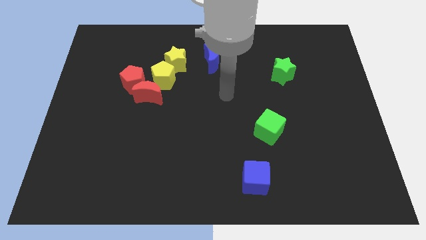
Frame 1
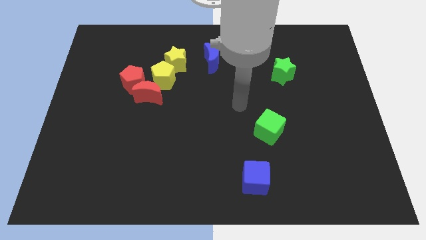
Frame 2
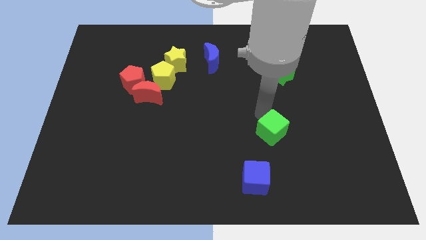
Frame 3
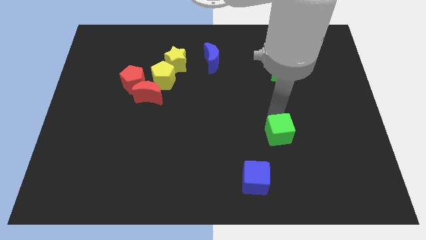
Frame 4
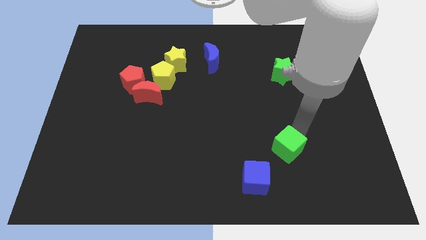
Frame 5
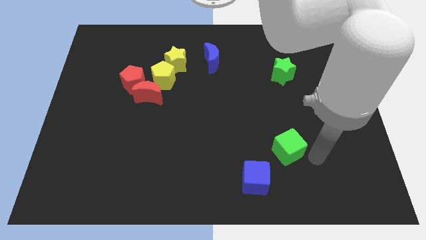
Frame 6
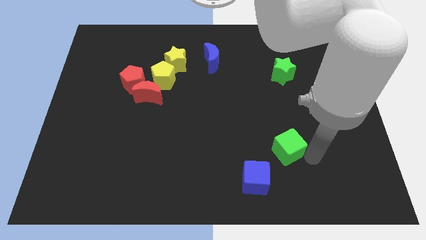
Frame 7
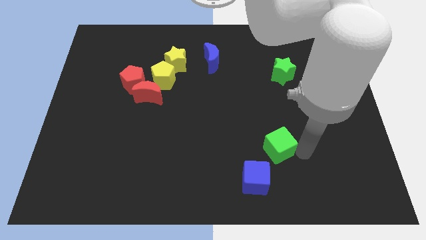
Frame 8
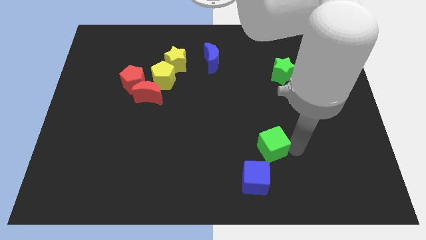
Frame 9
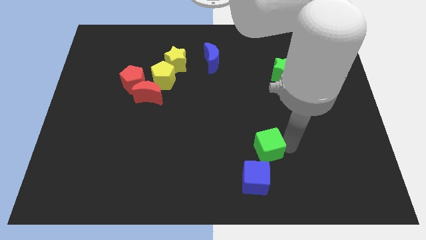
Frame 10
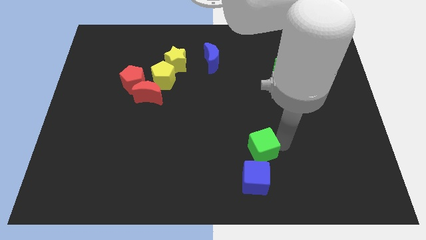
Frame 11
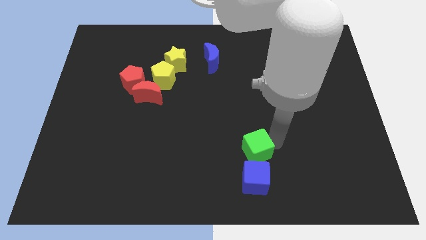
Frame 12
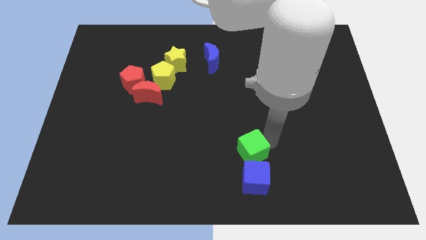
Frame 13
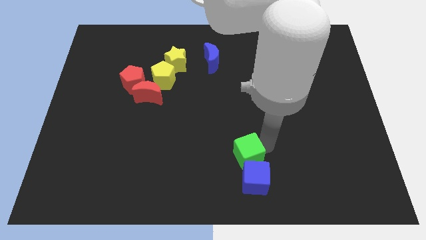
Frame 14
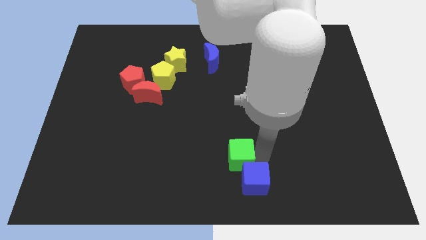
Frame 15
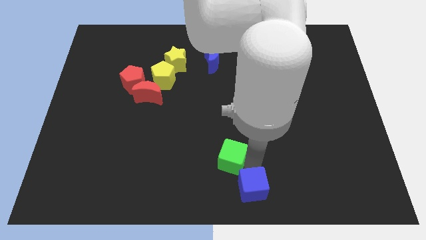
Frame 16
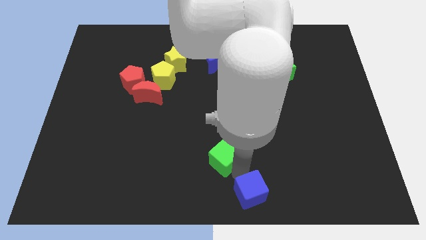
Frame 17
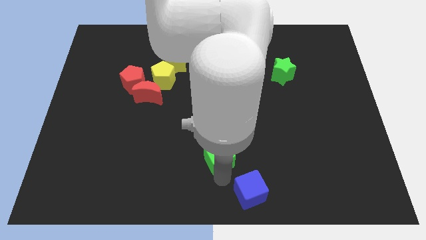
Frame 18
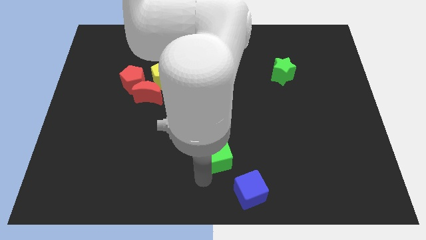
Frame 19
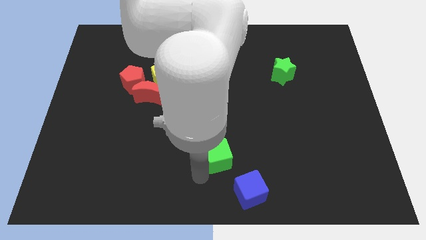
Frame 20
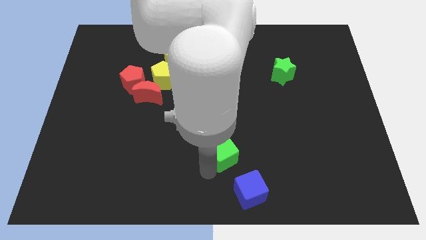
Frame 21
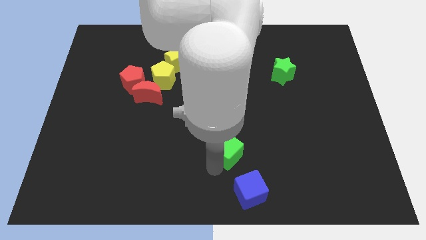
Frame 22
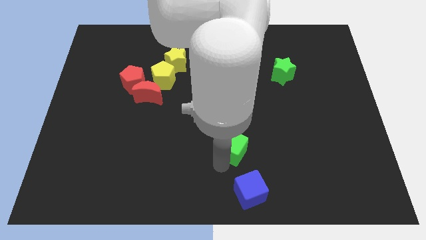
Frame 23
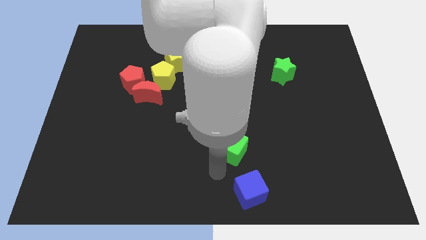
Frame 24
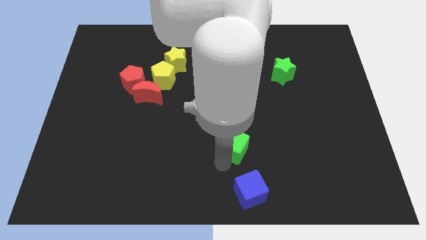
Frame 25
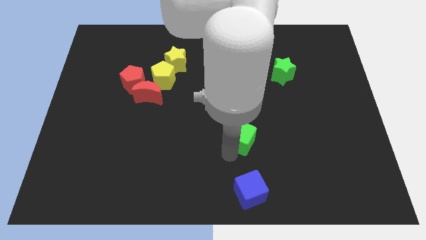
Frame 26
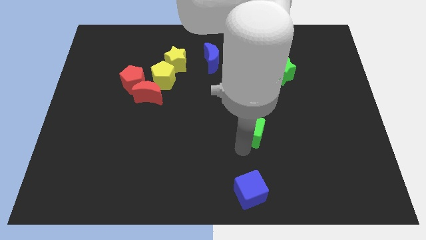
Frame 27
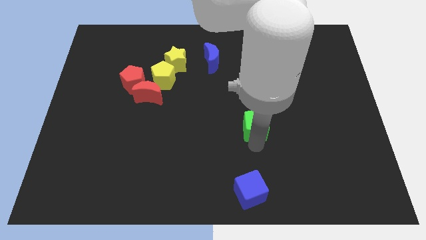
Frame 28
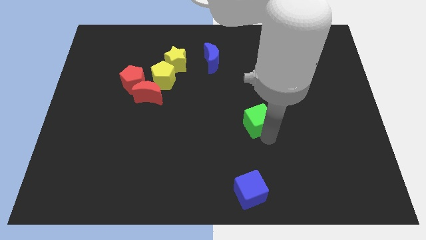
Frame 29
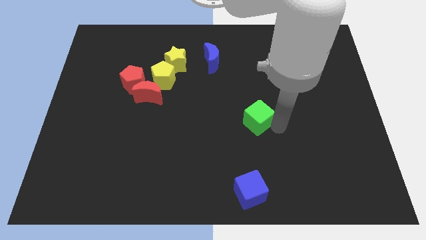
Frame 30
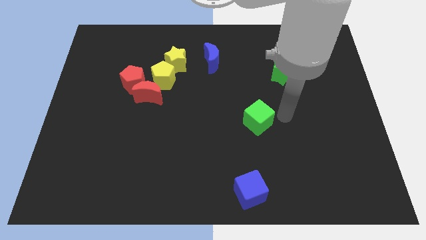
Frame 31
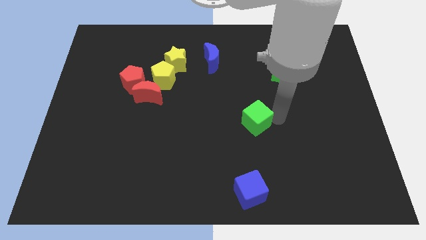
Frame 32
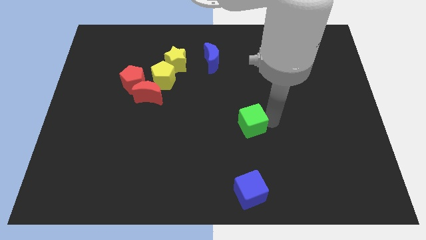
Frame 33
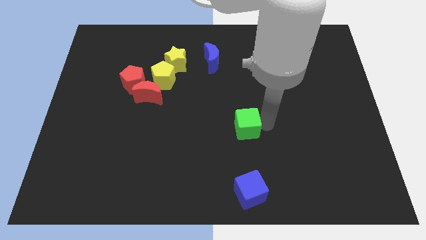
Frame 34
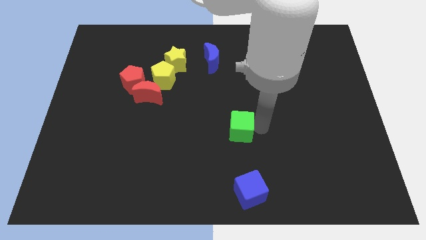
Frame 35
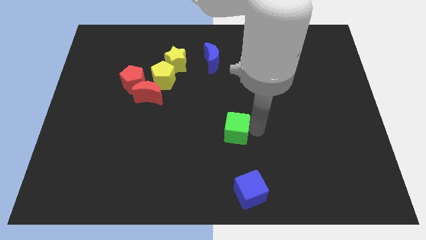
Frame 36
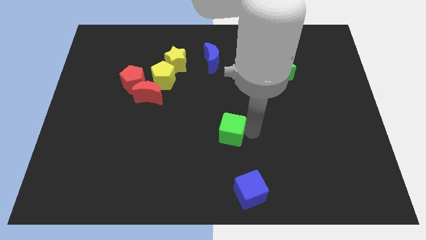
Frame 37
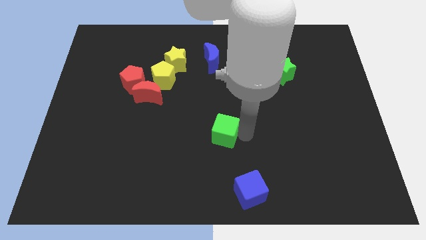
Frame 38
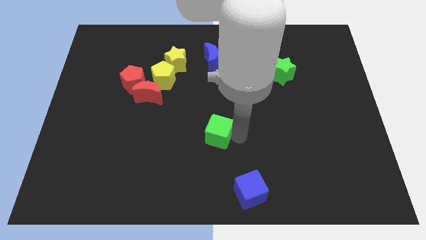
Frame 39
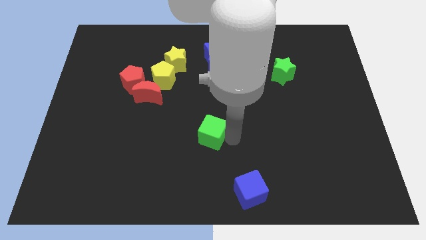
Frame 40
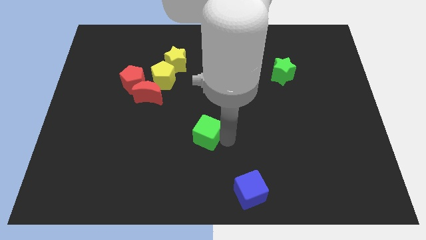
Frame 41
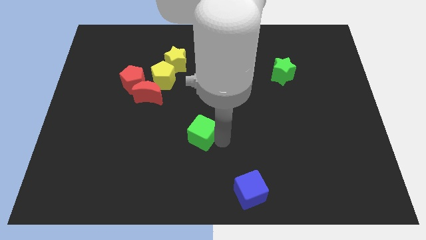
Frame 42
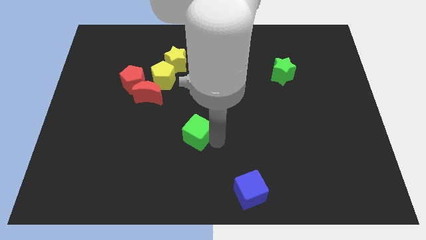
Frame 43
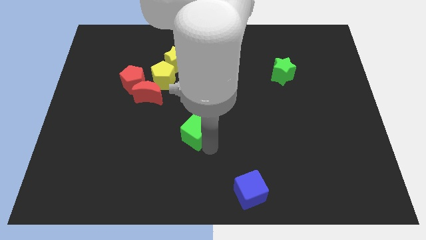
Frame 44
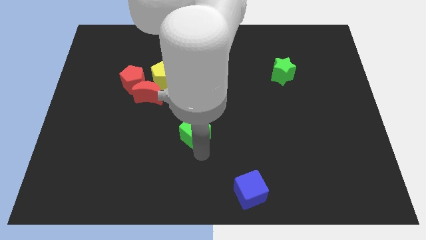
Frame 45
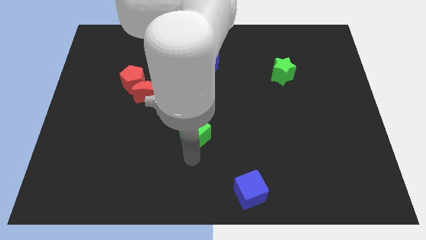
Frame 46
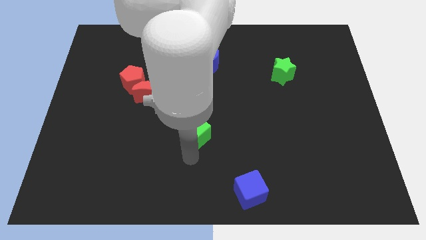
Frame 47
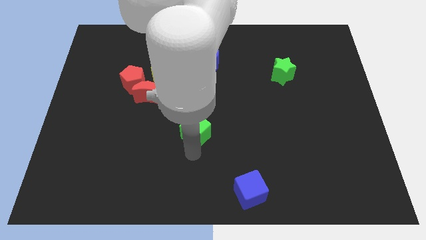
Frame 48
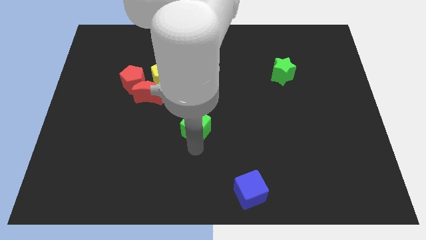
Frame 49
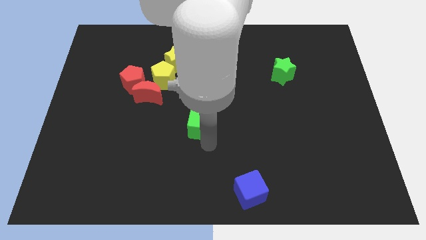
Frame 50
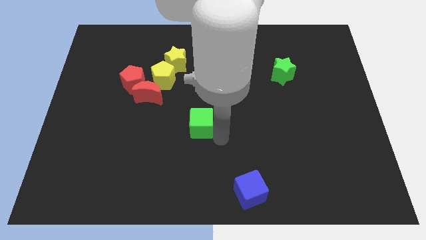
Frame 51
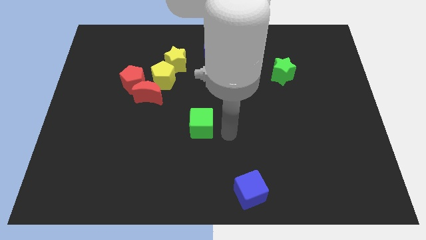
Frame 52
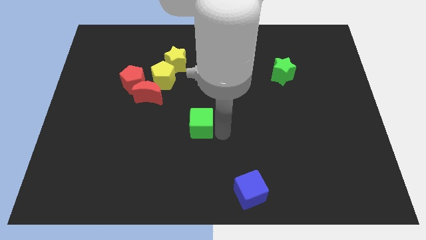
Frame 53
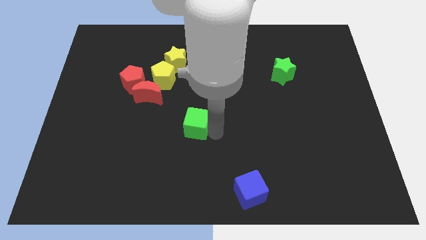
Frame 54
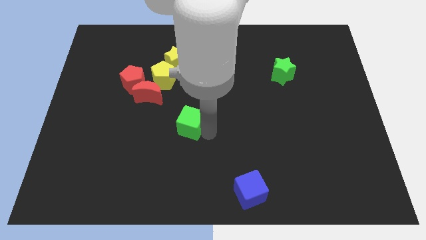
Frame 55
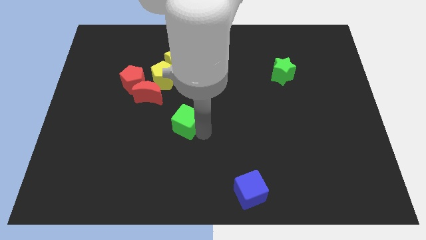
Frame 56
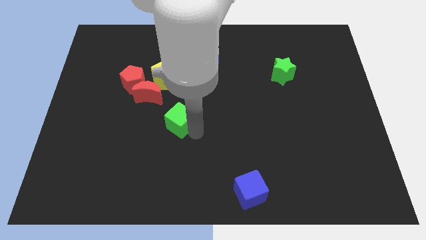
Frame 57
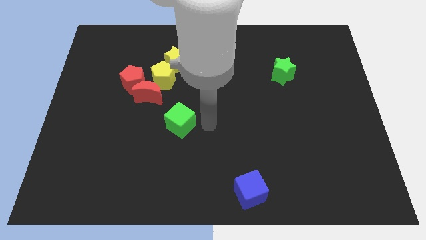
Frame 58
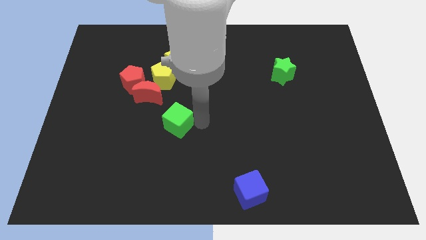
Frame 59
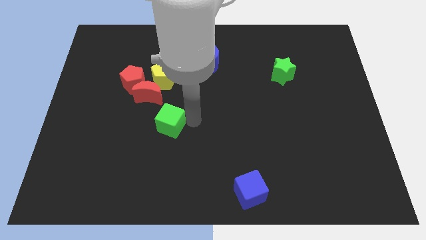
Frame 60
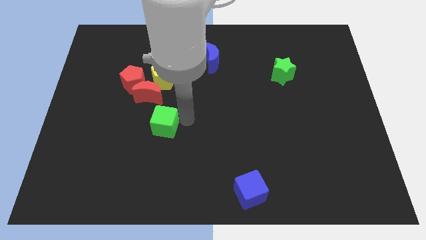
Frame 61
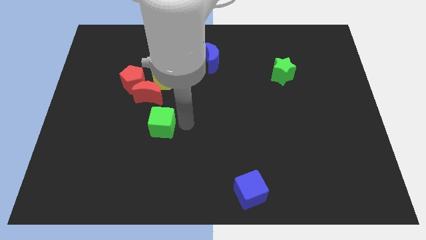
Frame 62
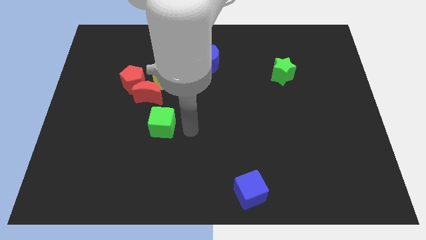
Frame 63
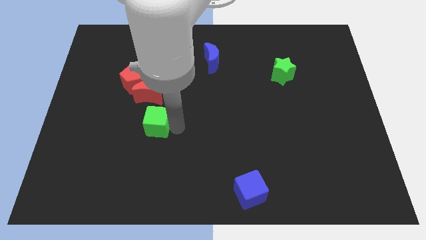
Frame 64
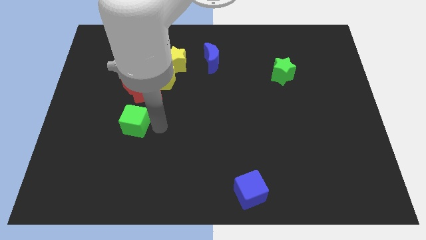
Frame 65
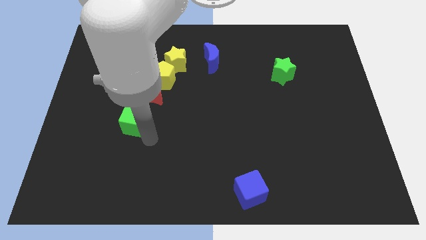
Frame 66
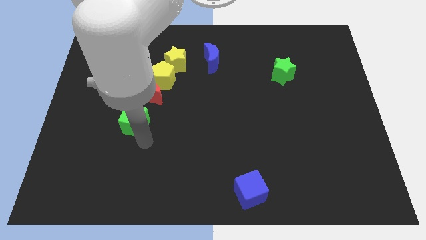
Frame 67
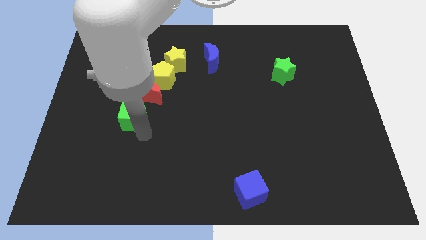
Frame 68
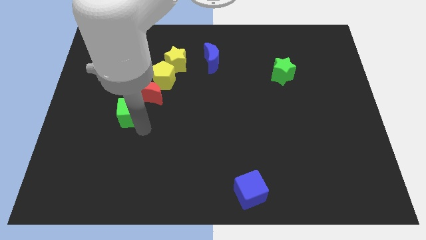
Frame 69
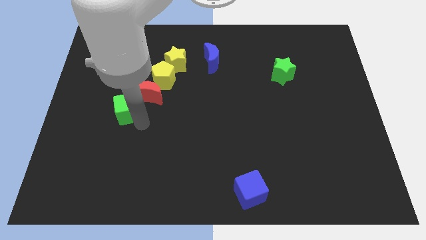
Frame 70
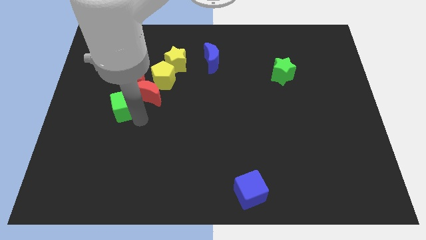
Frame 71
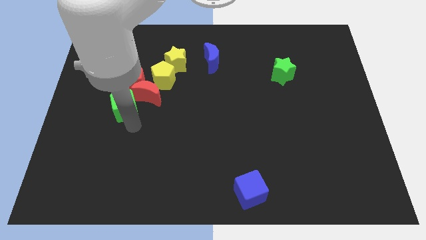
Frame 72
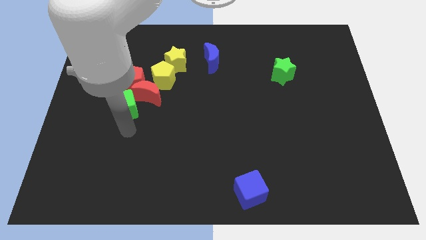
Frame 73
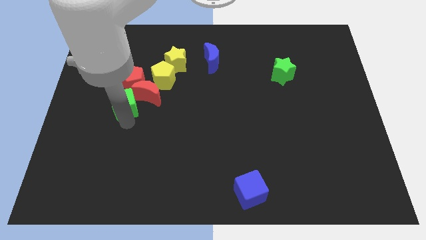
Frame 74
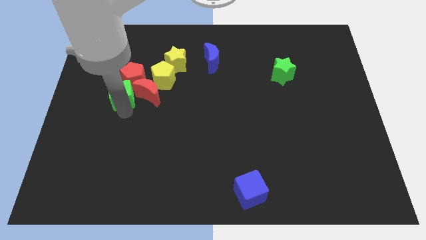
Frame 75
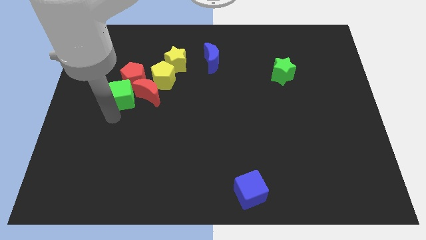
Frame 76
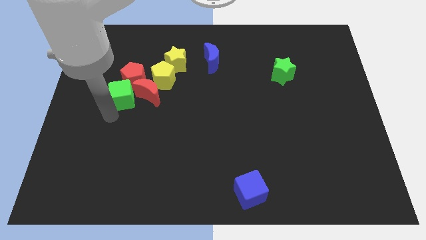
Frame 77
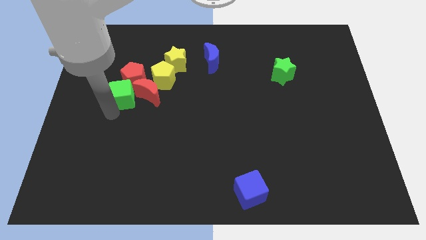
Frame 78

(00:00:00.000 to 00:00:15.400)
move the green cube towards the red pentagon
